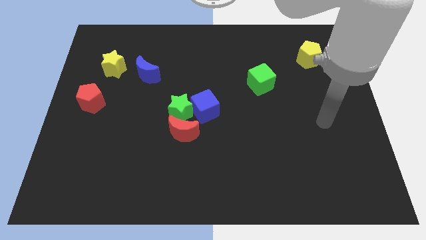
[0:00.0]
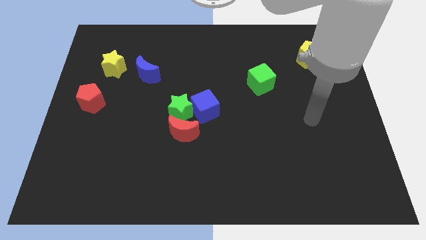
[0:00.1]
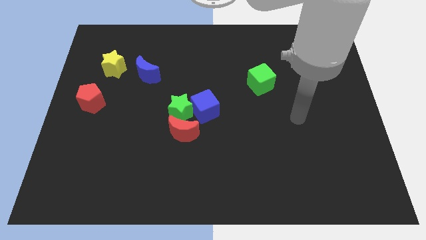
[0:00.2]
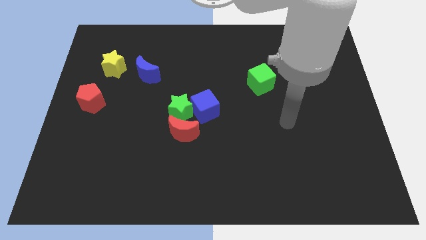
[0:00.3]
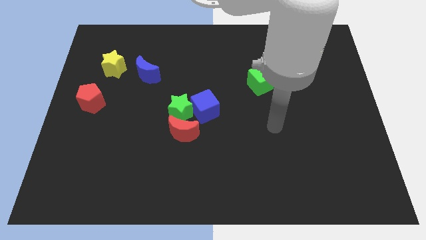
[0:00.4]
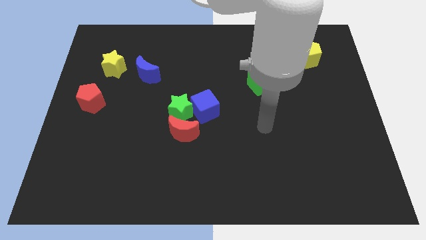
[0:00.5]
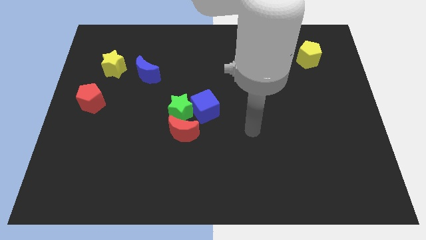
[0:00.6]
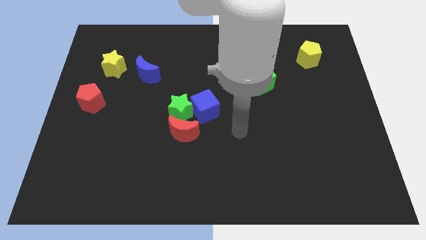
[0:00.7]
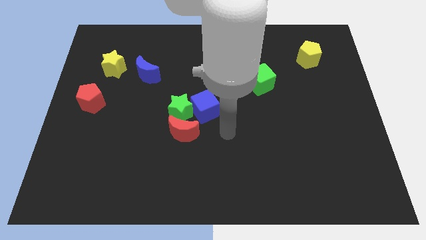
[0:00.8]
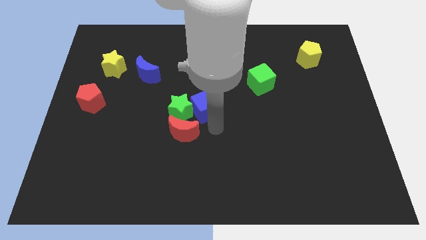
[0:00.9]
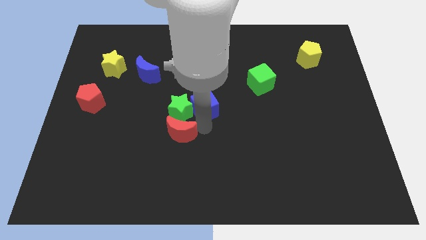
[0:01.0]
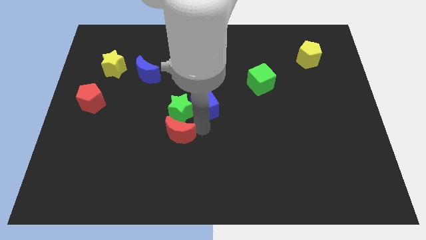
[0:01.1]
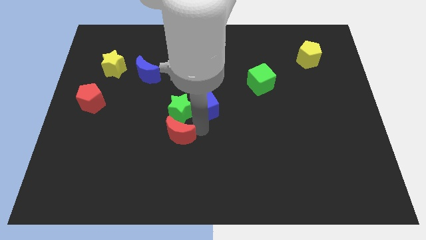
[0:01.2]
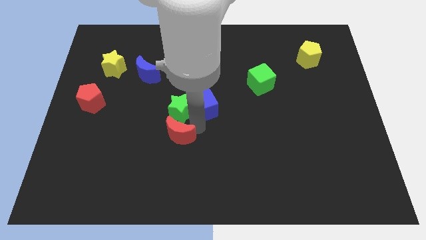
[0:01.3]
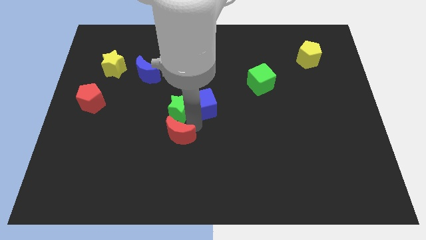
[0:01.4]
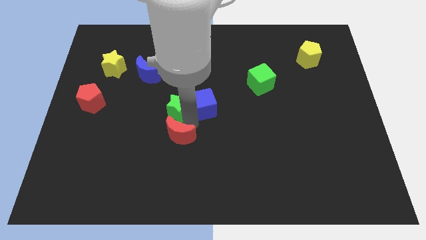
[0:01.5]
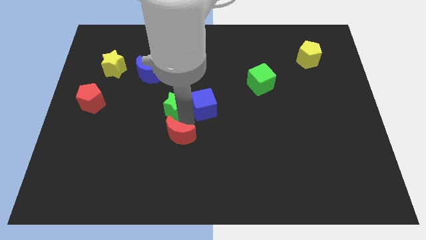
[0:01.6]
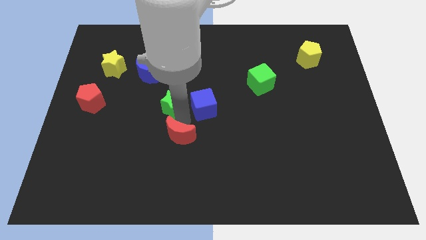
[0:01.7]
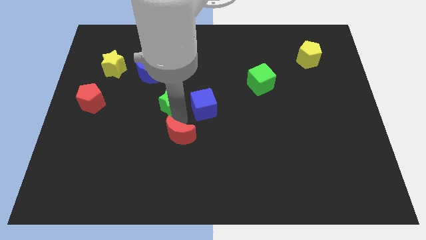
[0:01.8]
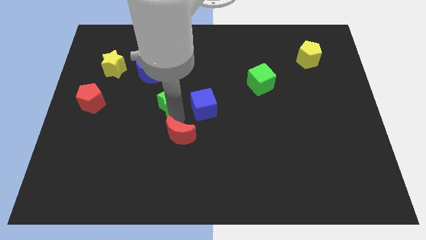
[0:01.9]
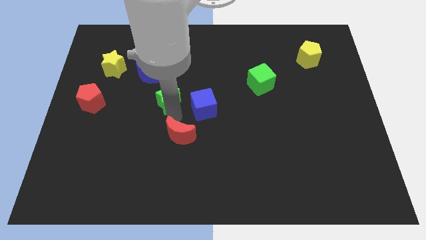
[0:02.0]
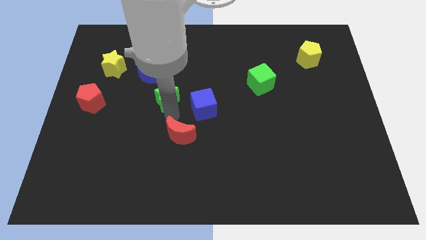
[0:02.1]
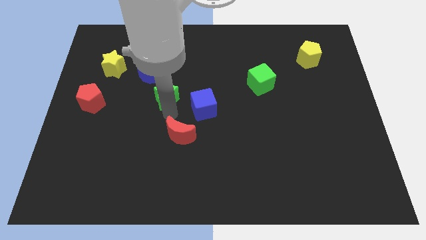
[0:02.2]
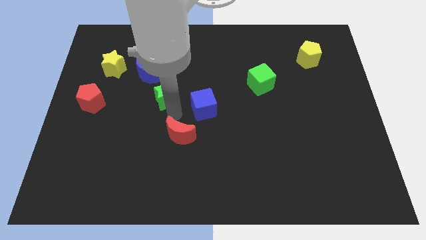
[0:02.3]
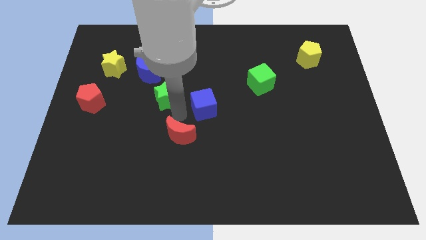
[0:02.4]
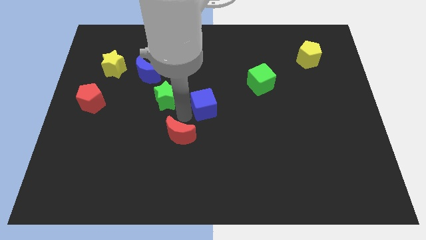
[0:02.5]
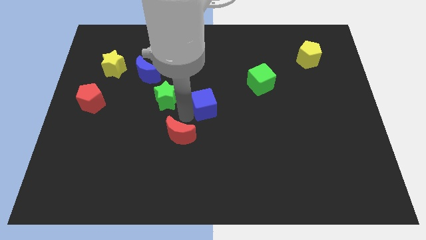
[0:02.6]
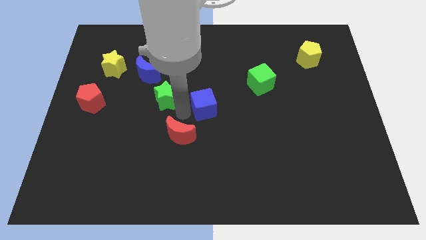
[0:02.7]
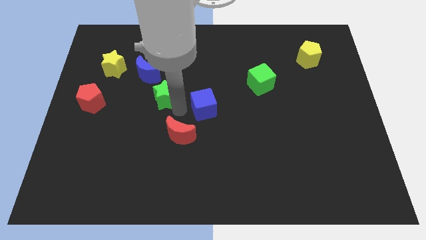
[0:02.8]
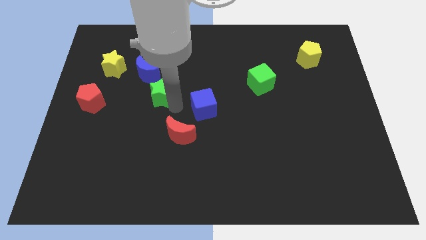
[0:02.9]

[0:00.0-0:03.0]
separate the green star from the blue cube and red moon

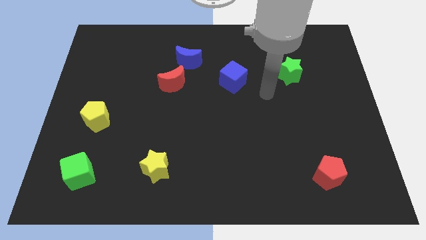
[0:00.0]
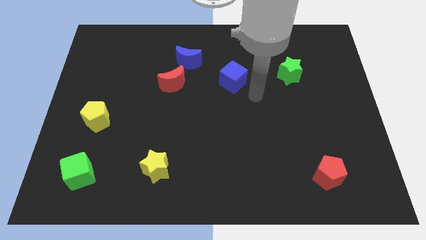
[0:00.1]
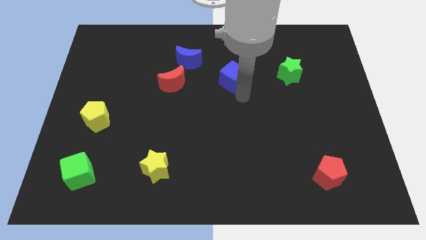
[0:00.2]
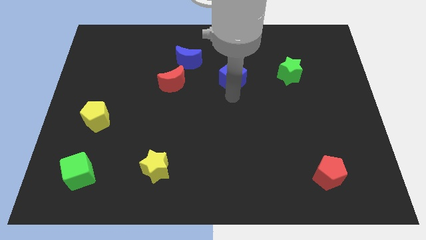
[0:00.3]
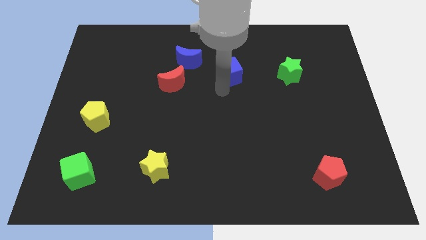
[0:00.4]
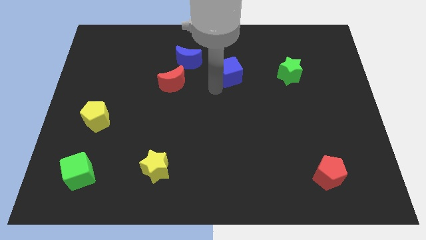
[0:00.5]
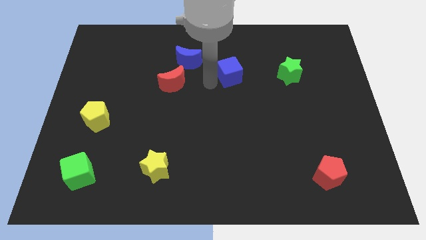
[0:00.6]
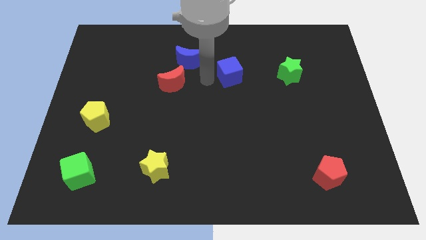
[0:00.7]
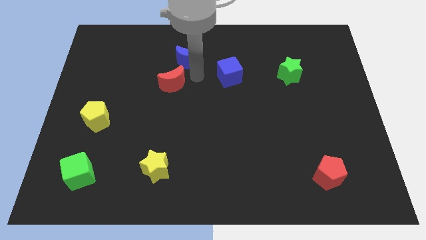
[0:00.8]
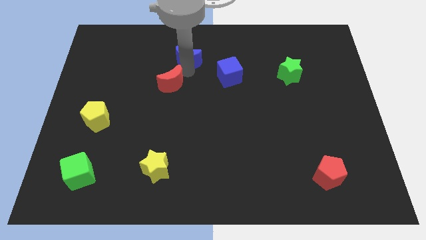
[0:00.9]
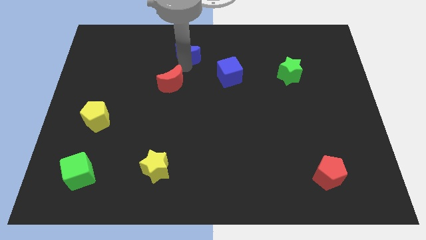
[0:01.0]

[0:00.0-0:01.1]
pull the red moon apart from the blue moon

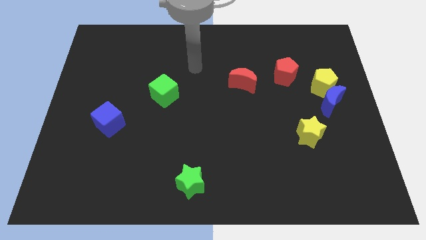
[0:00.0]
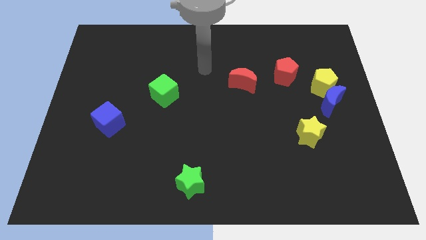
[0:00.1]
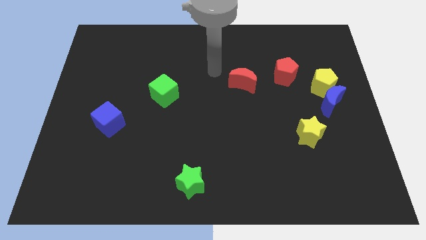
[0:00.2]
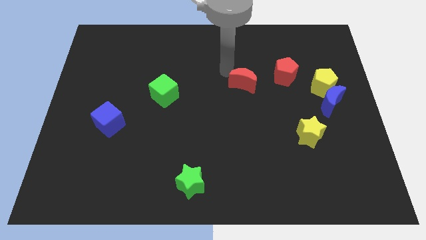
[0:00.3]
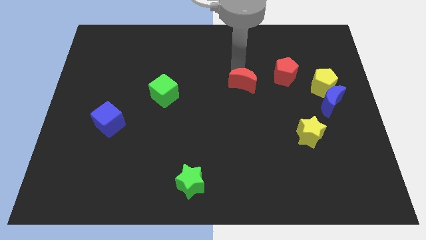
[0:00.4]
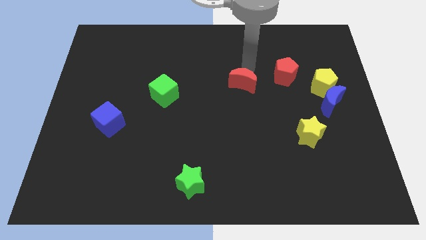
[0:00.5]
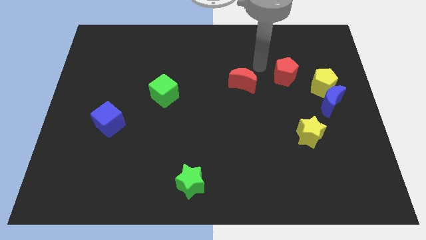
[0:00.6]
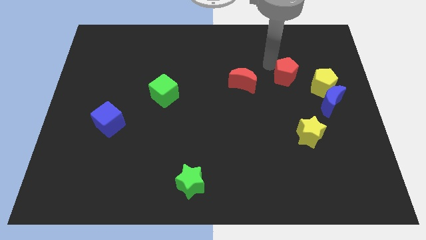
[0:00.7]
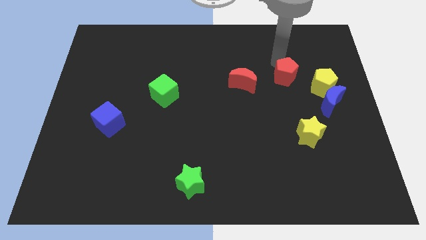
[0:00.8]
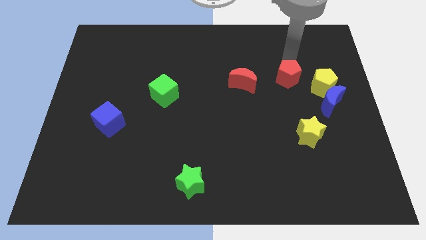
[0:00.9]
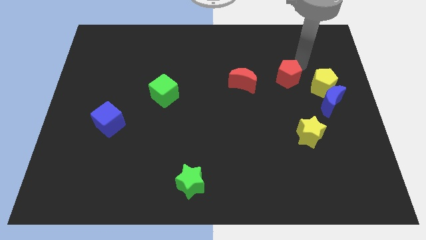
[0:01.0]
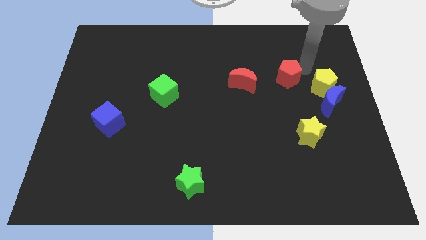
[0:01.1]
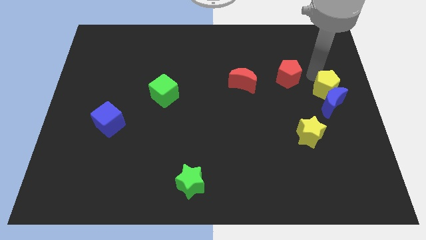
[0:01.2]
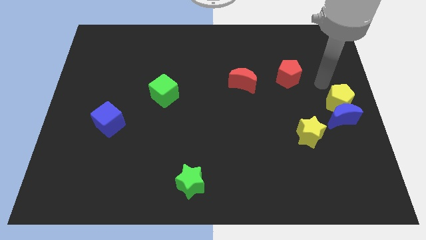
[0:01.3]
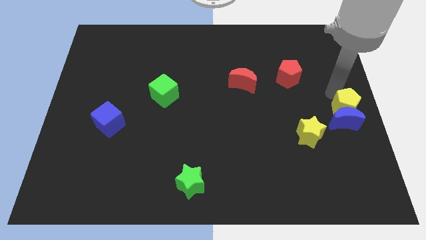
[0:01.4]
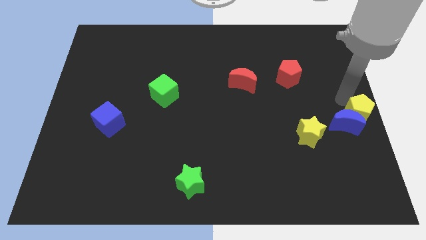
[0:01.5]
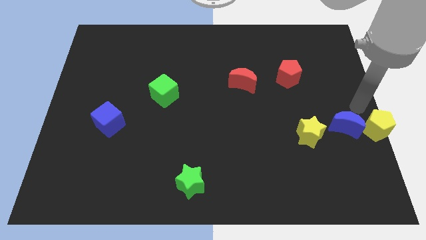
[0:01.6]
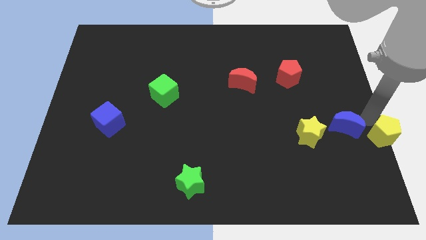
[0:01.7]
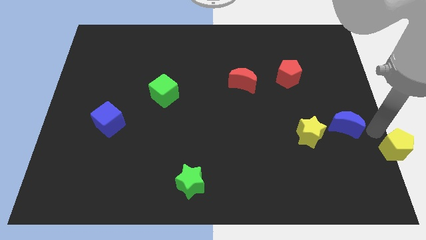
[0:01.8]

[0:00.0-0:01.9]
pull the blue moon apart from the yellow pentagon

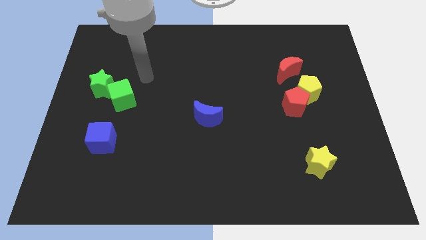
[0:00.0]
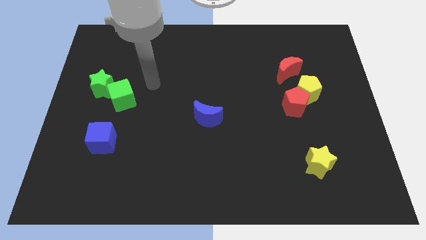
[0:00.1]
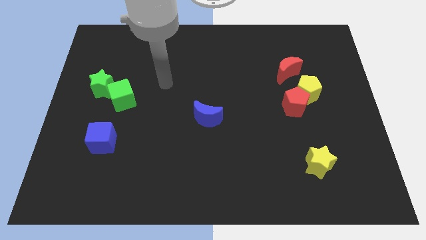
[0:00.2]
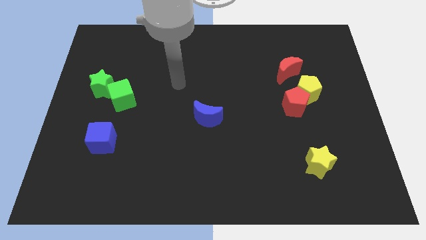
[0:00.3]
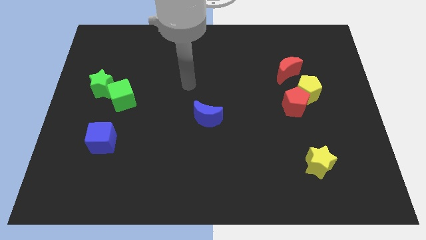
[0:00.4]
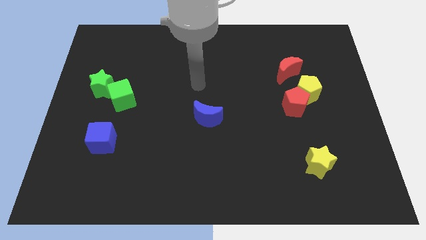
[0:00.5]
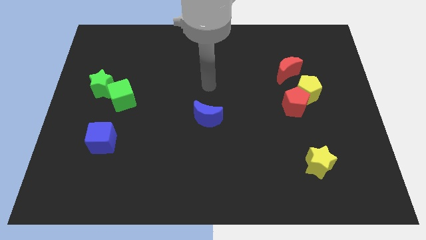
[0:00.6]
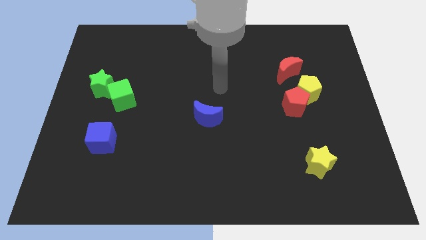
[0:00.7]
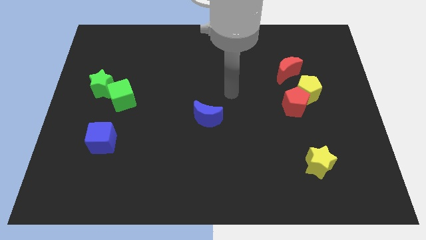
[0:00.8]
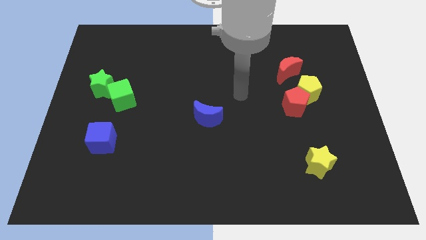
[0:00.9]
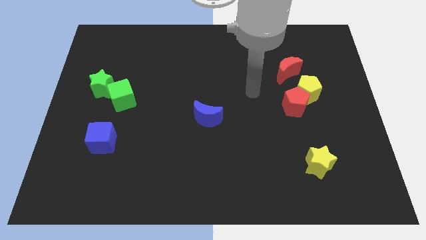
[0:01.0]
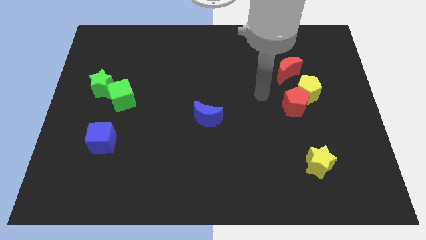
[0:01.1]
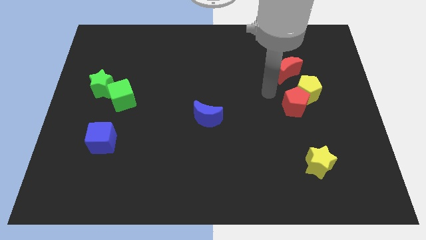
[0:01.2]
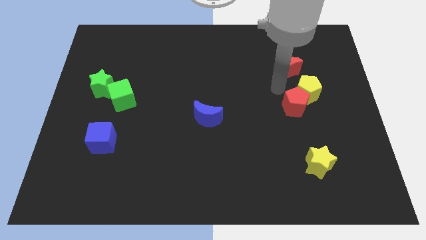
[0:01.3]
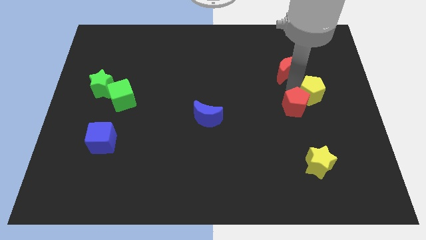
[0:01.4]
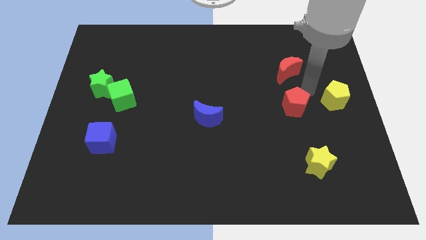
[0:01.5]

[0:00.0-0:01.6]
move the red pentagon away from the yellow pentagon

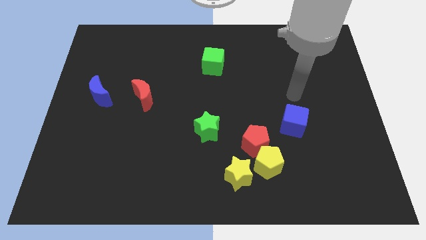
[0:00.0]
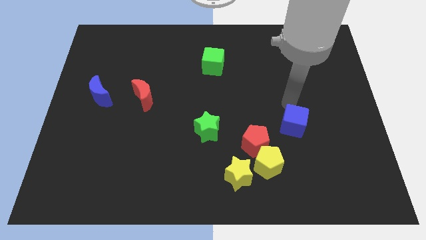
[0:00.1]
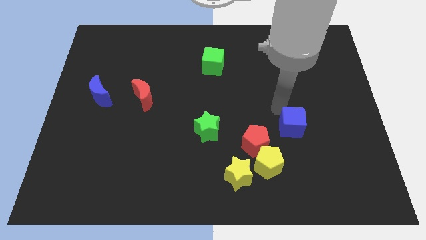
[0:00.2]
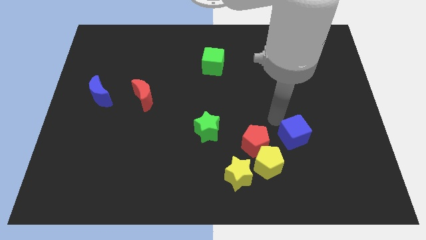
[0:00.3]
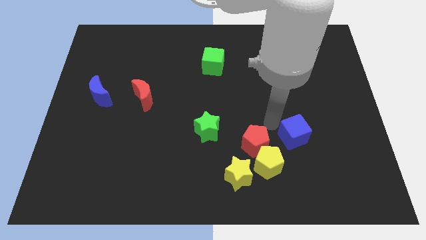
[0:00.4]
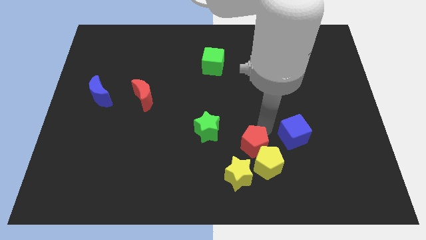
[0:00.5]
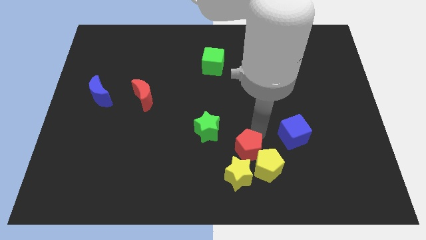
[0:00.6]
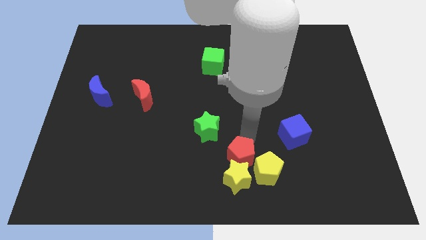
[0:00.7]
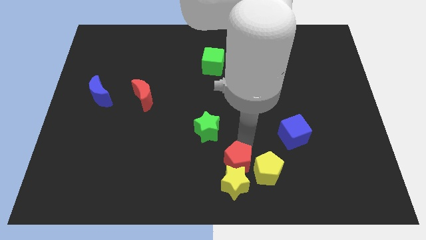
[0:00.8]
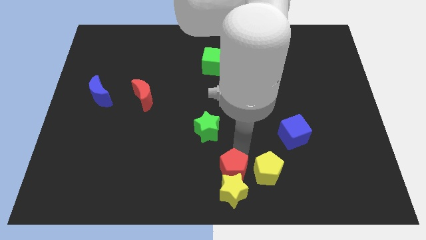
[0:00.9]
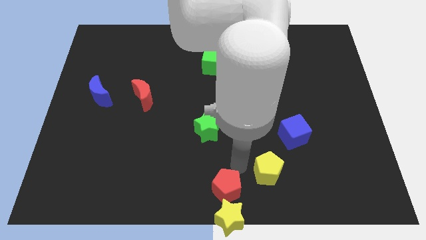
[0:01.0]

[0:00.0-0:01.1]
move the yellow pentagon away from the red pentagon and yellow star

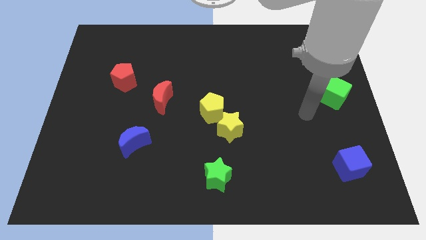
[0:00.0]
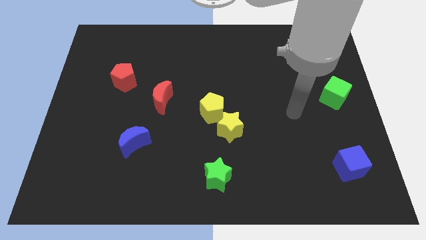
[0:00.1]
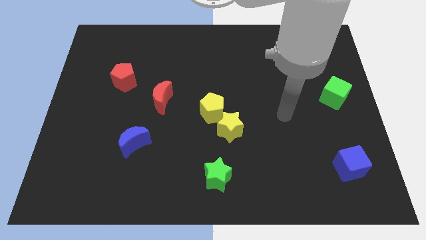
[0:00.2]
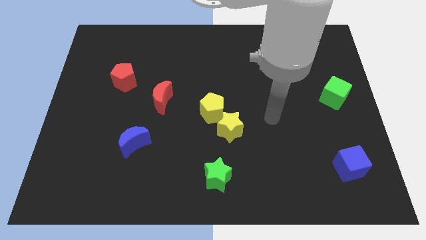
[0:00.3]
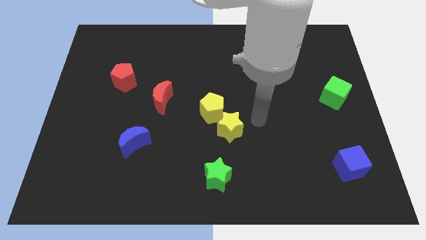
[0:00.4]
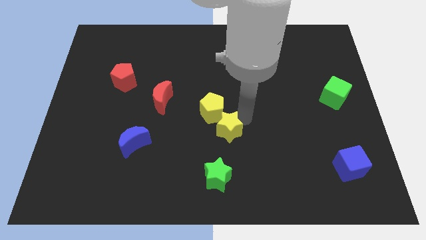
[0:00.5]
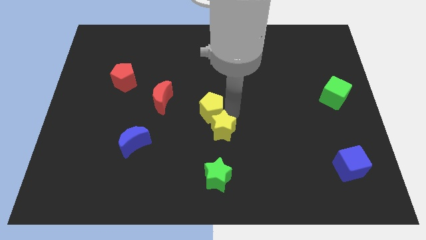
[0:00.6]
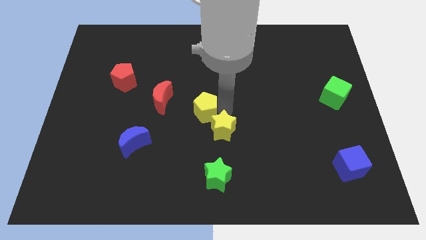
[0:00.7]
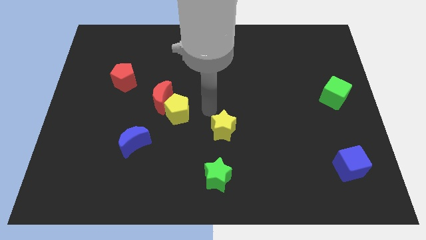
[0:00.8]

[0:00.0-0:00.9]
move the yellow star away from the yellow pentagon
